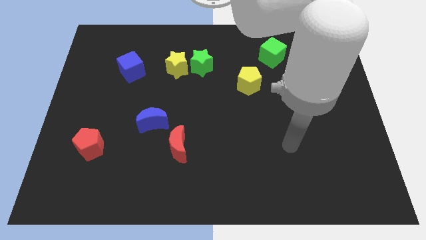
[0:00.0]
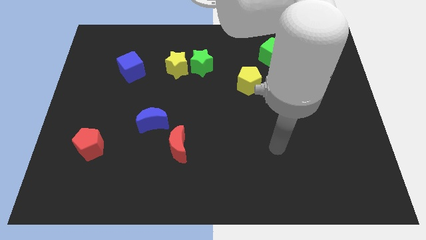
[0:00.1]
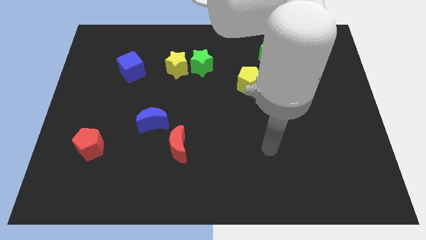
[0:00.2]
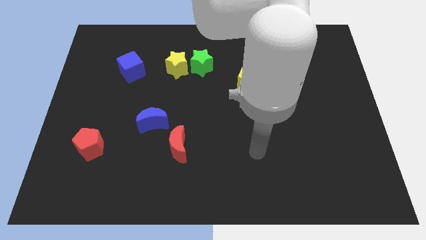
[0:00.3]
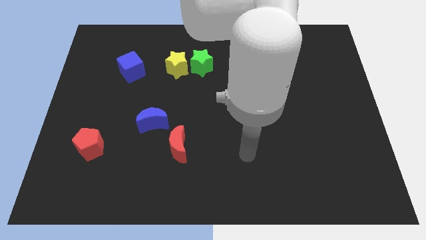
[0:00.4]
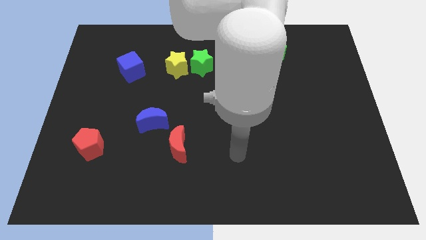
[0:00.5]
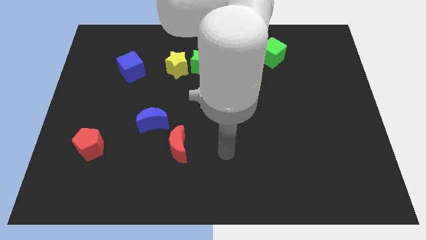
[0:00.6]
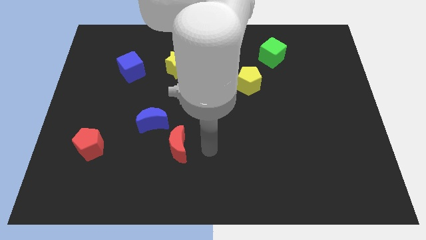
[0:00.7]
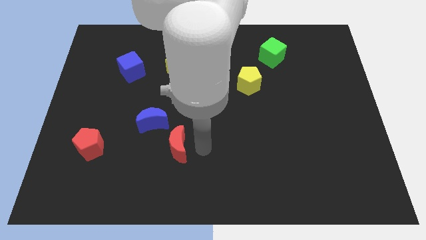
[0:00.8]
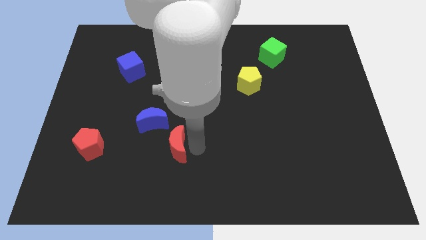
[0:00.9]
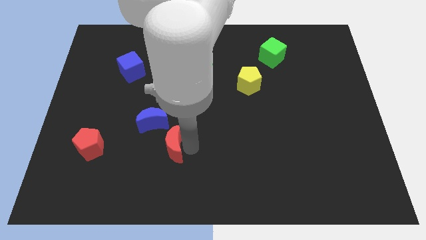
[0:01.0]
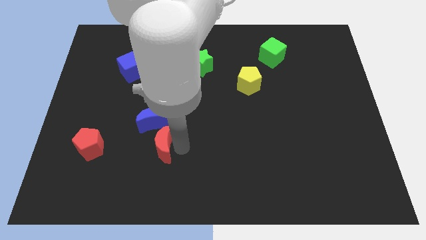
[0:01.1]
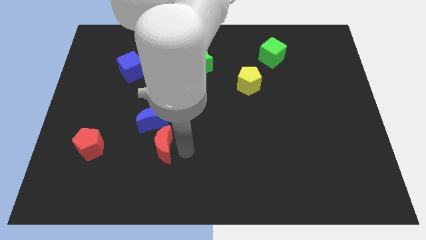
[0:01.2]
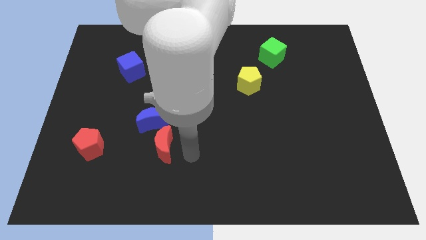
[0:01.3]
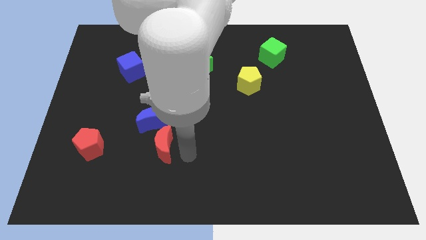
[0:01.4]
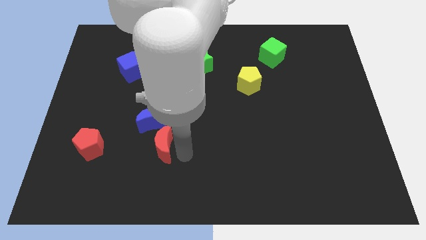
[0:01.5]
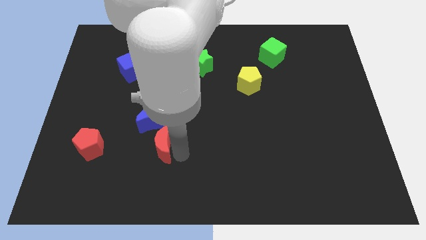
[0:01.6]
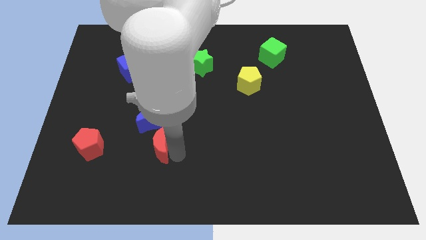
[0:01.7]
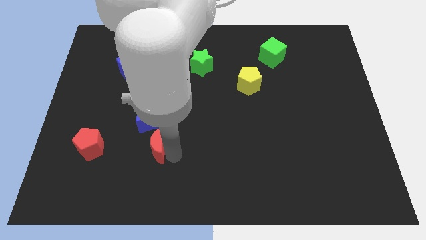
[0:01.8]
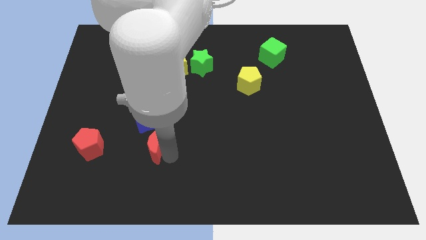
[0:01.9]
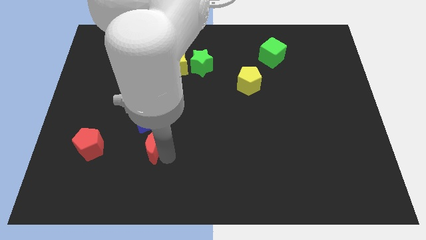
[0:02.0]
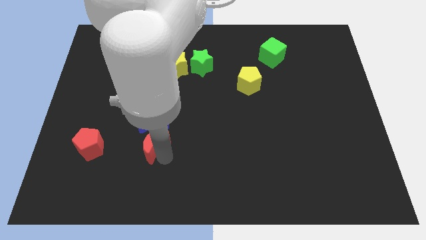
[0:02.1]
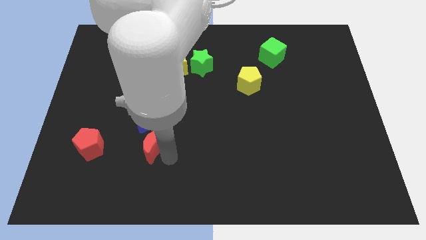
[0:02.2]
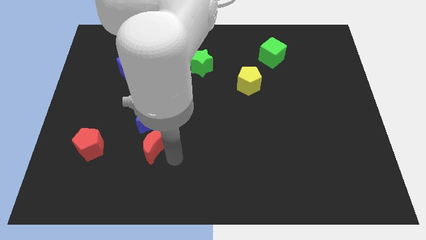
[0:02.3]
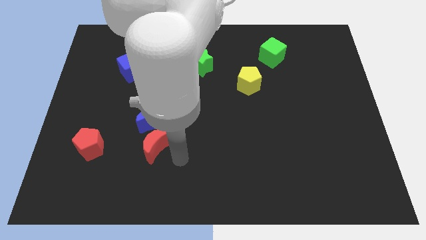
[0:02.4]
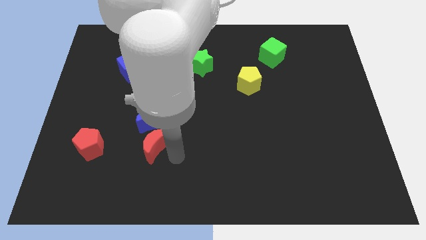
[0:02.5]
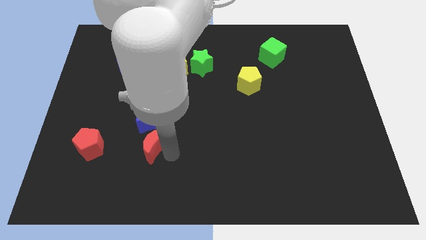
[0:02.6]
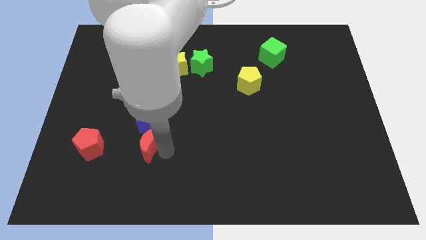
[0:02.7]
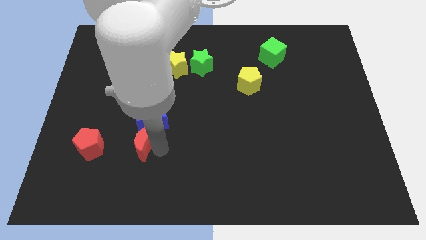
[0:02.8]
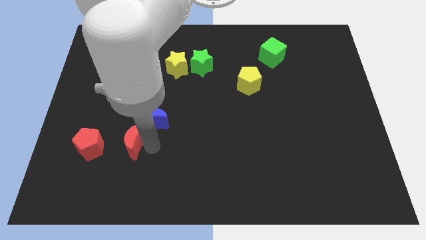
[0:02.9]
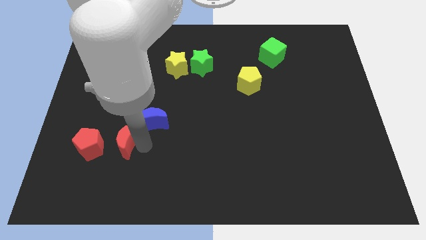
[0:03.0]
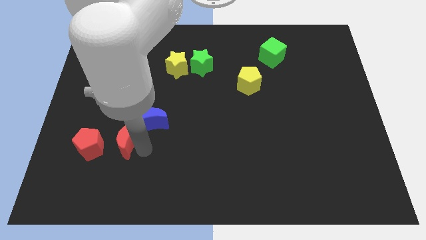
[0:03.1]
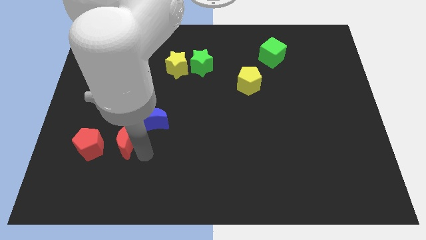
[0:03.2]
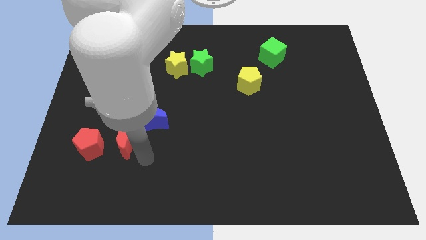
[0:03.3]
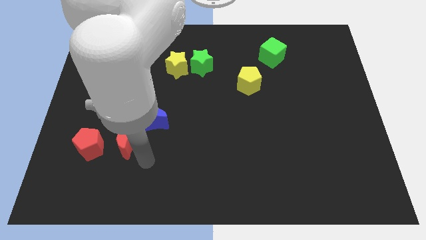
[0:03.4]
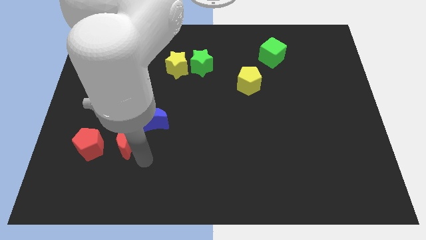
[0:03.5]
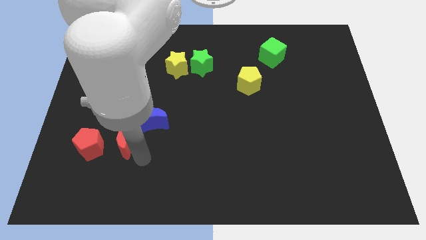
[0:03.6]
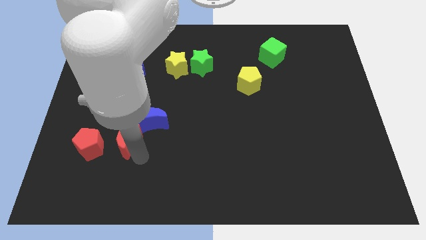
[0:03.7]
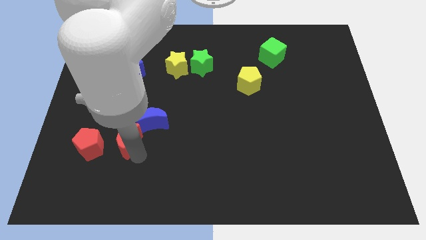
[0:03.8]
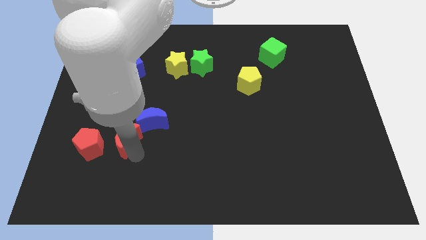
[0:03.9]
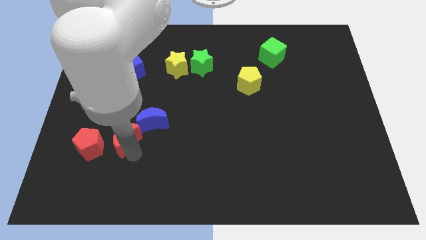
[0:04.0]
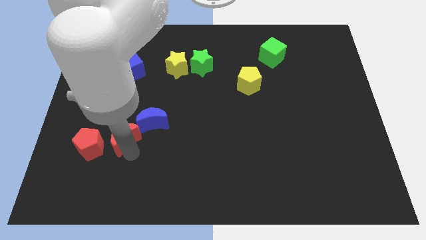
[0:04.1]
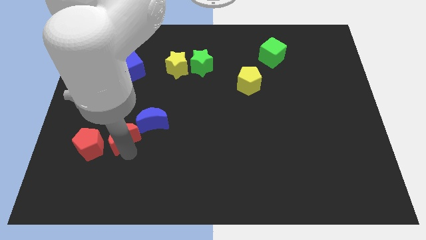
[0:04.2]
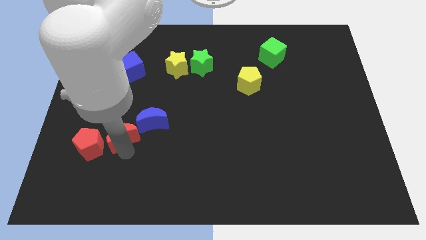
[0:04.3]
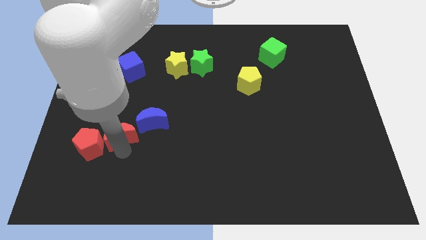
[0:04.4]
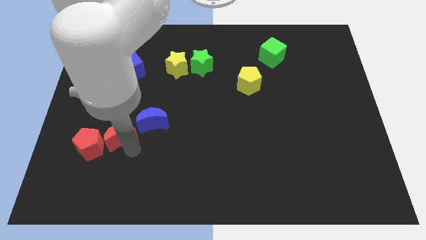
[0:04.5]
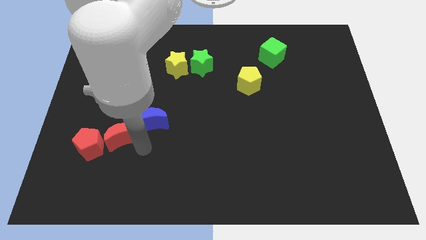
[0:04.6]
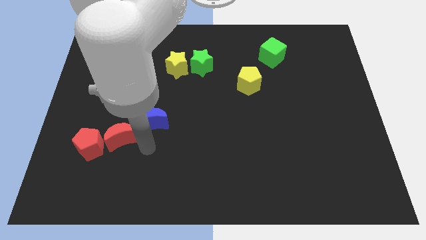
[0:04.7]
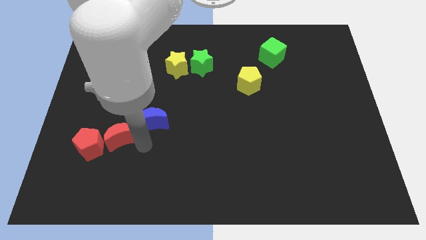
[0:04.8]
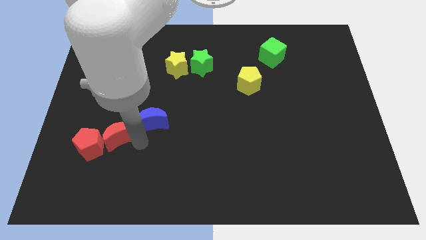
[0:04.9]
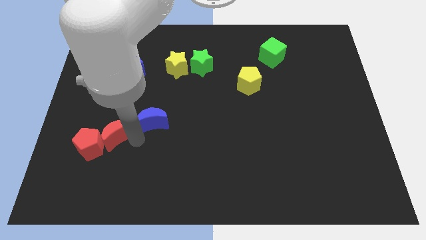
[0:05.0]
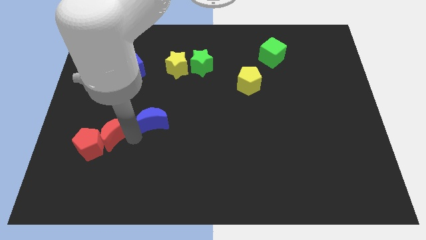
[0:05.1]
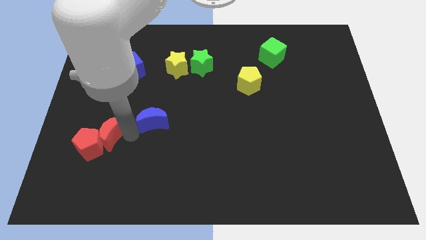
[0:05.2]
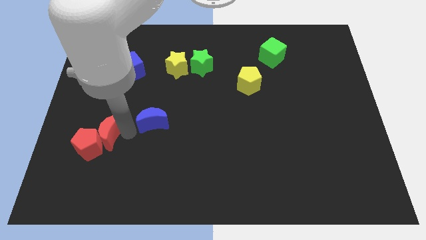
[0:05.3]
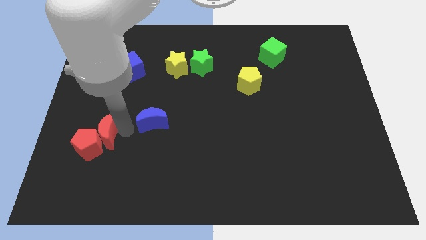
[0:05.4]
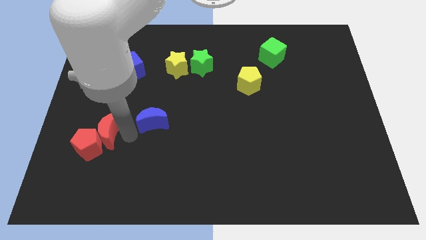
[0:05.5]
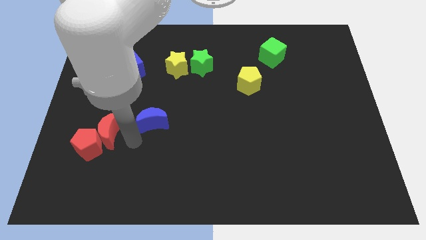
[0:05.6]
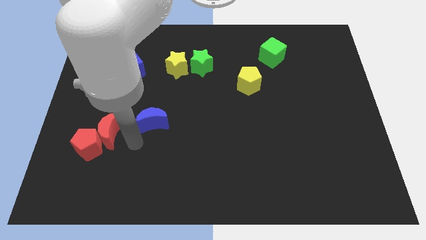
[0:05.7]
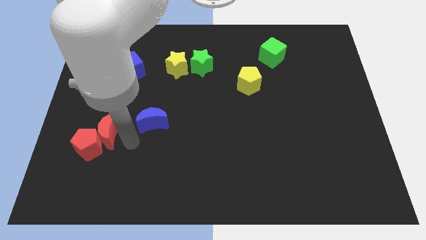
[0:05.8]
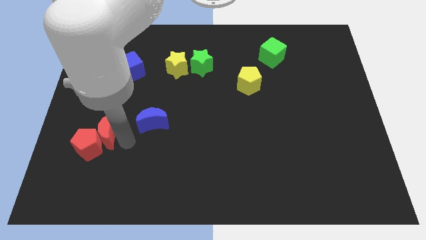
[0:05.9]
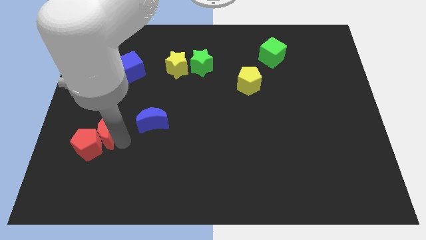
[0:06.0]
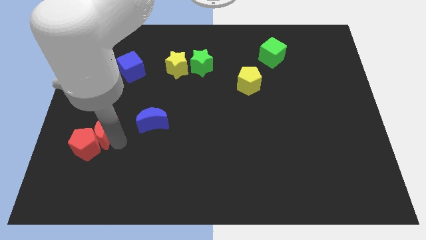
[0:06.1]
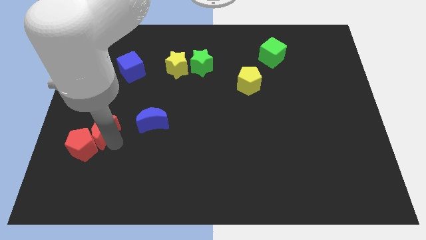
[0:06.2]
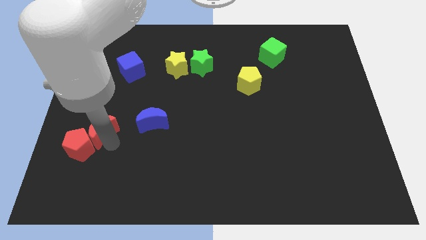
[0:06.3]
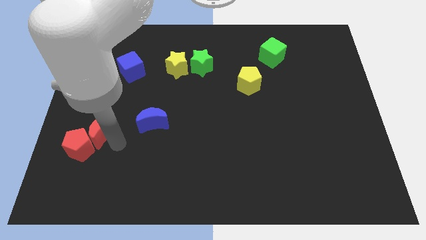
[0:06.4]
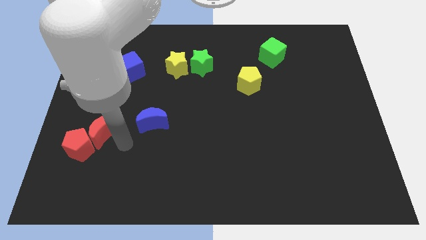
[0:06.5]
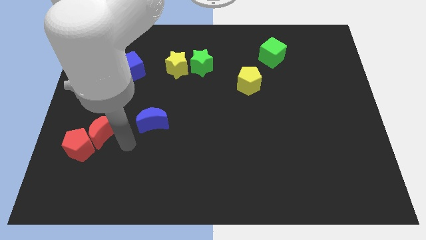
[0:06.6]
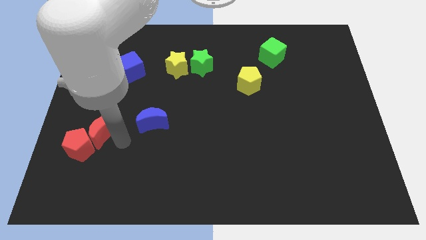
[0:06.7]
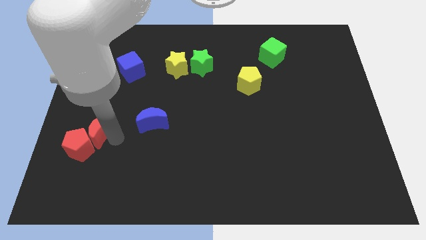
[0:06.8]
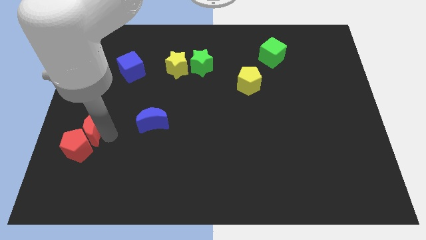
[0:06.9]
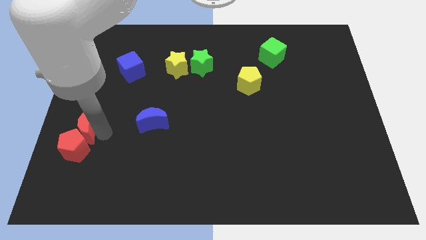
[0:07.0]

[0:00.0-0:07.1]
slide the red moon to the left side of the board
